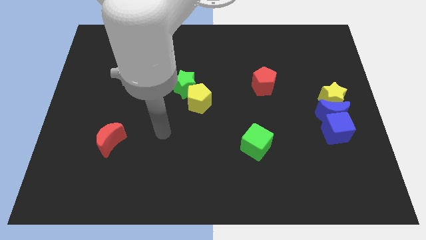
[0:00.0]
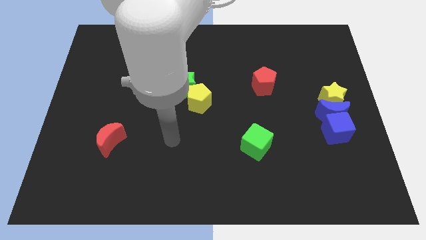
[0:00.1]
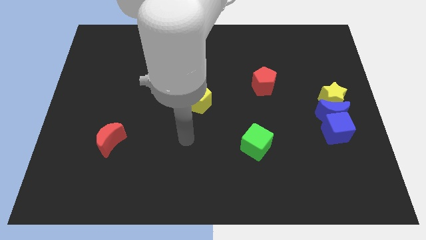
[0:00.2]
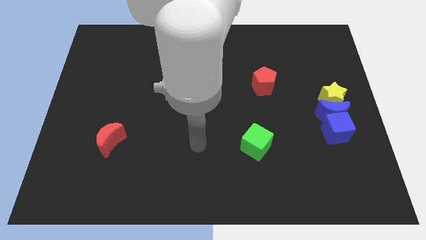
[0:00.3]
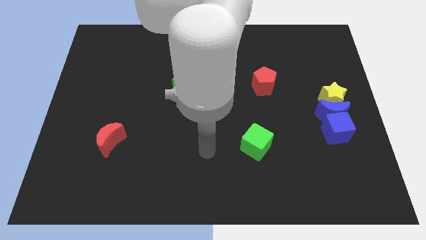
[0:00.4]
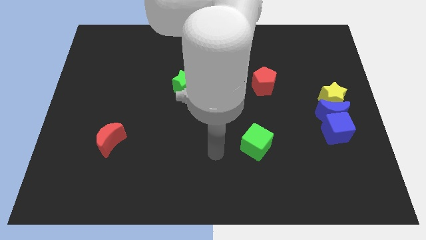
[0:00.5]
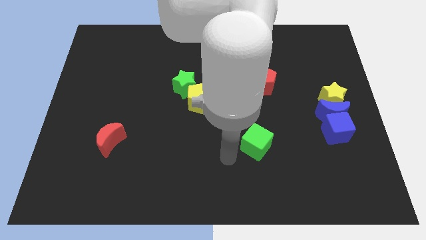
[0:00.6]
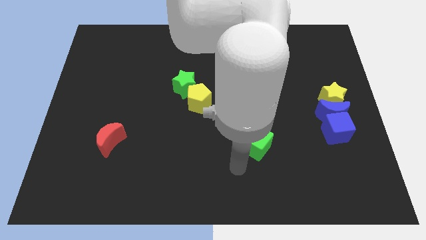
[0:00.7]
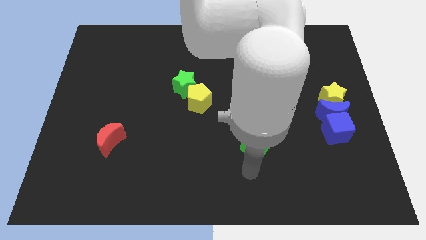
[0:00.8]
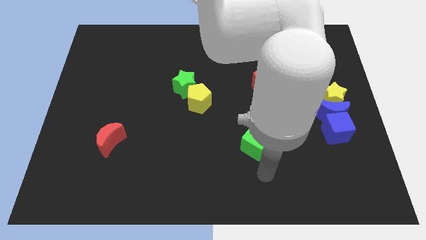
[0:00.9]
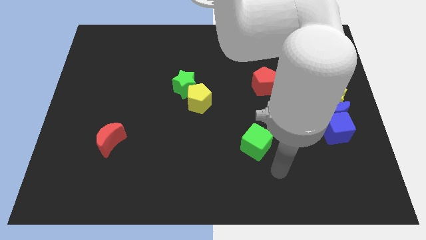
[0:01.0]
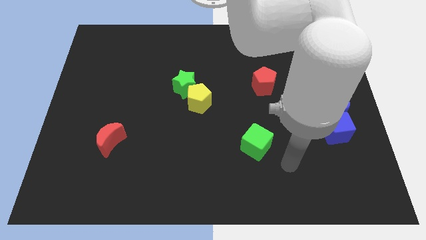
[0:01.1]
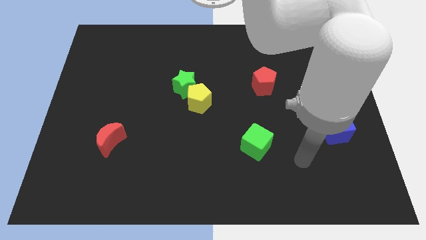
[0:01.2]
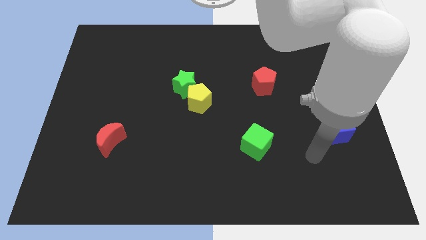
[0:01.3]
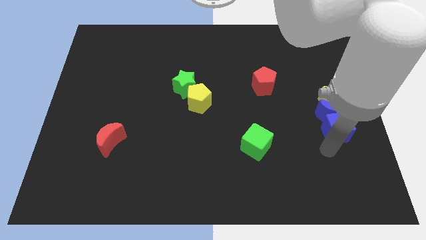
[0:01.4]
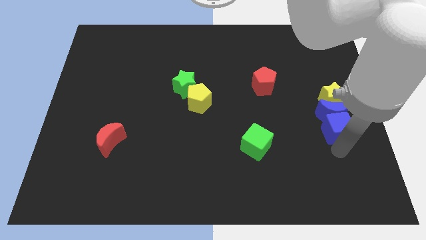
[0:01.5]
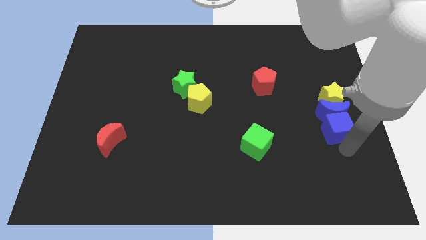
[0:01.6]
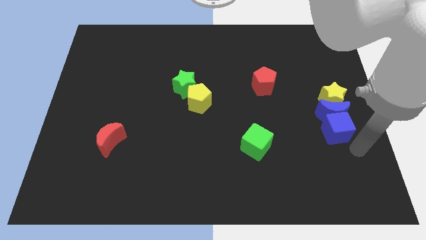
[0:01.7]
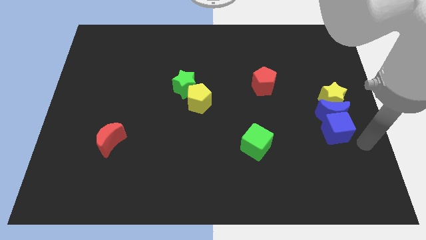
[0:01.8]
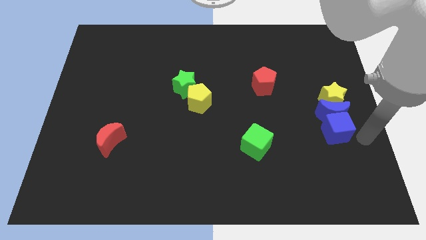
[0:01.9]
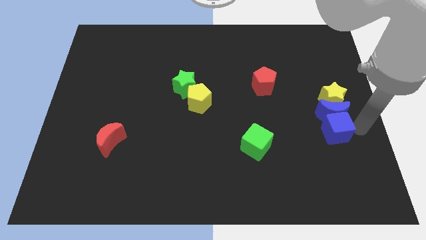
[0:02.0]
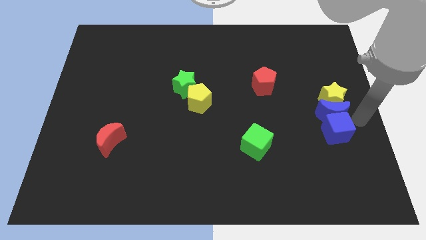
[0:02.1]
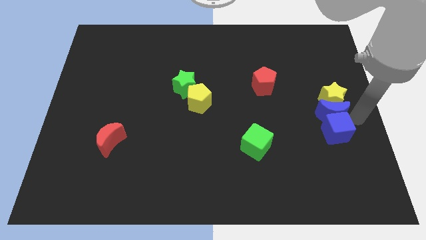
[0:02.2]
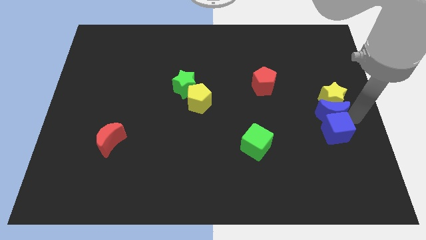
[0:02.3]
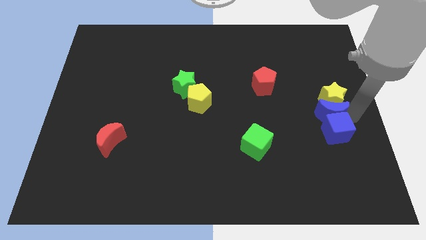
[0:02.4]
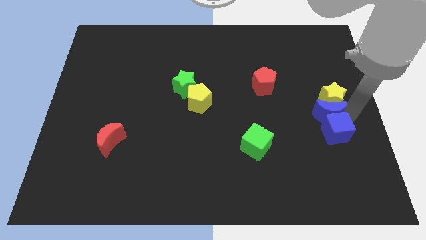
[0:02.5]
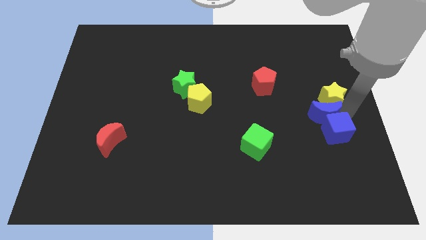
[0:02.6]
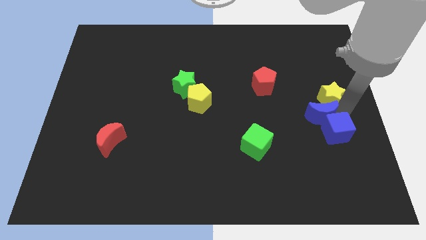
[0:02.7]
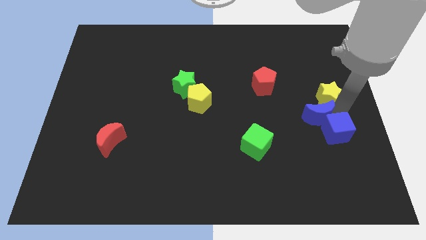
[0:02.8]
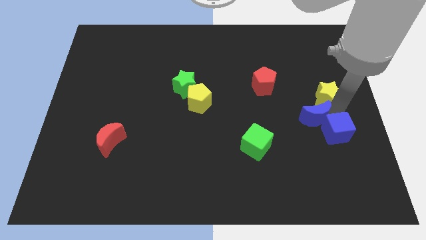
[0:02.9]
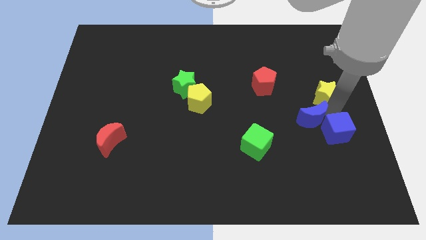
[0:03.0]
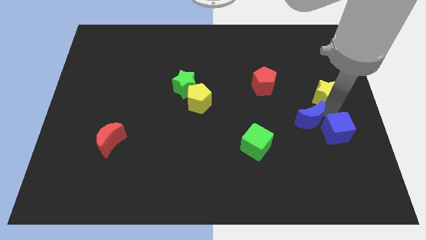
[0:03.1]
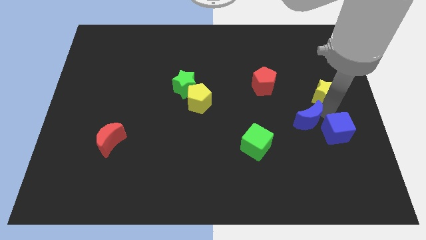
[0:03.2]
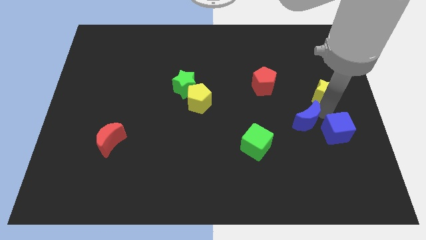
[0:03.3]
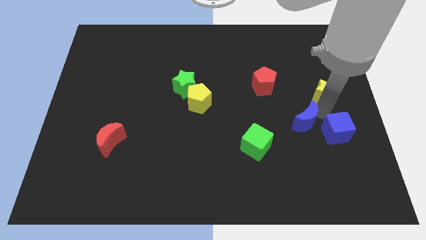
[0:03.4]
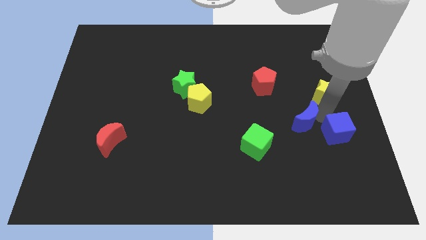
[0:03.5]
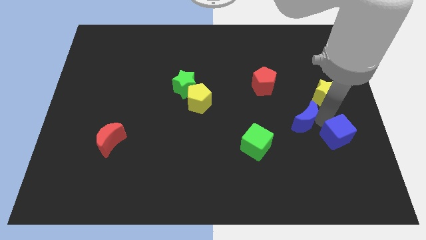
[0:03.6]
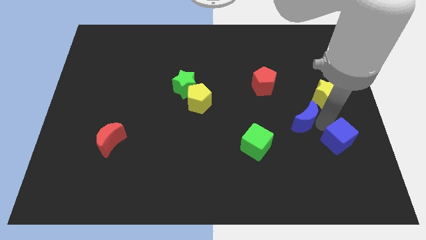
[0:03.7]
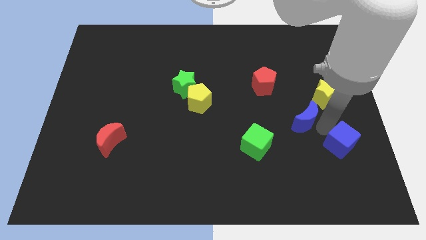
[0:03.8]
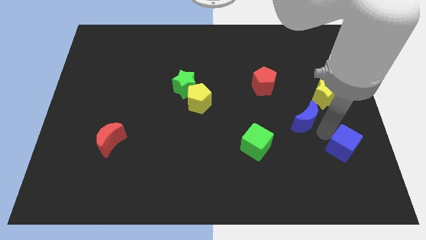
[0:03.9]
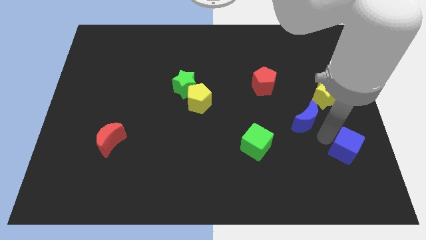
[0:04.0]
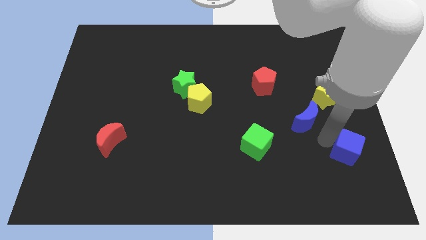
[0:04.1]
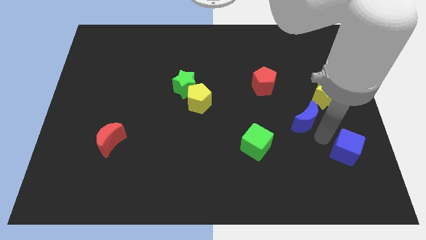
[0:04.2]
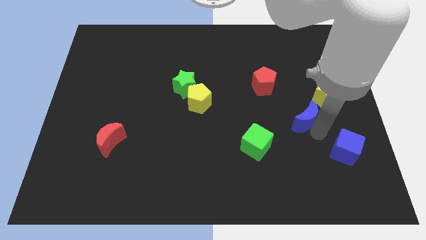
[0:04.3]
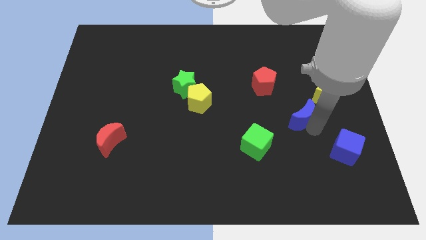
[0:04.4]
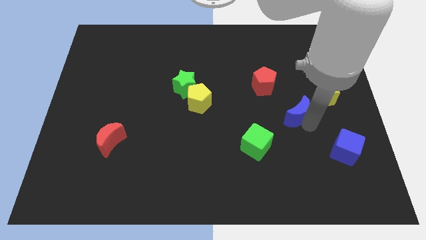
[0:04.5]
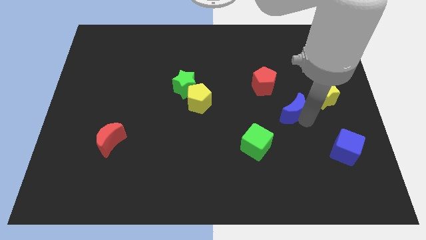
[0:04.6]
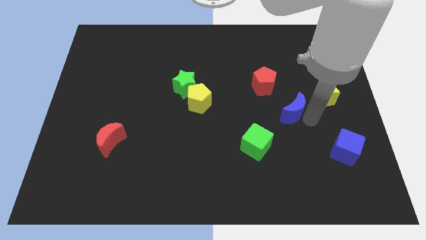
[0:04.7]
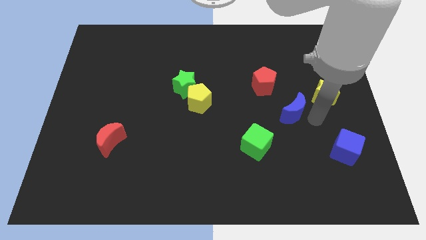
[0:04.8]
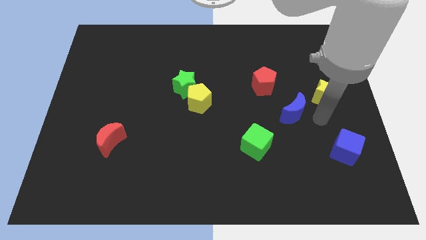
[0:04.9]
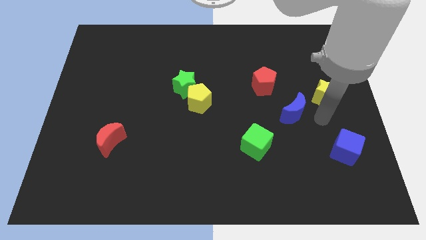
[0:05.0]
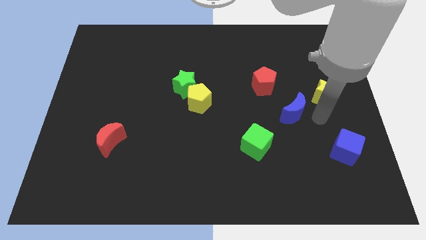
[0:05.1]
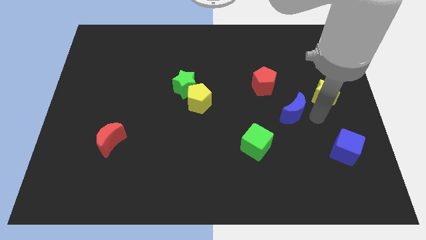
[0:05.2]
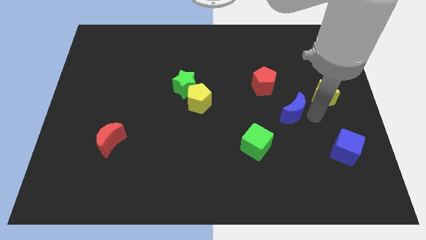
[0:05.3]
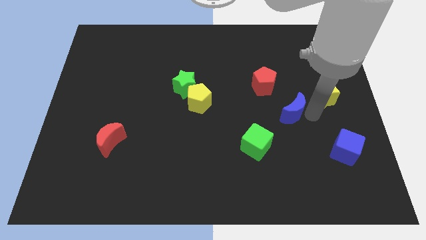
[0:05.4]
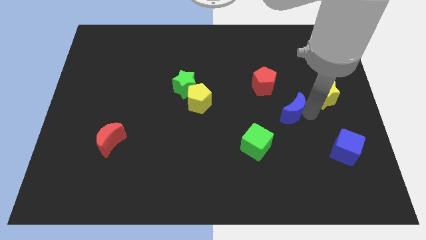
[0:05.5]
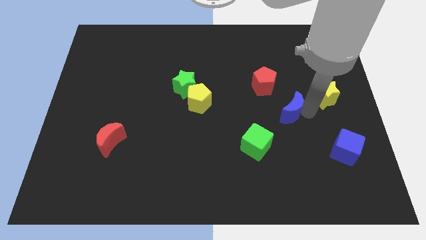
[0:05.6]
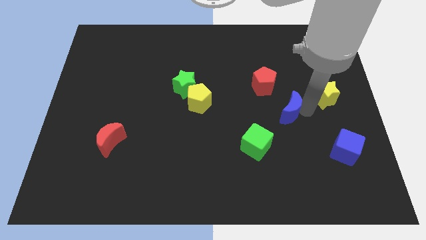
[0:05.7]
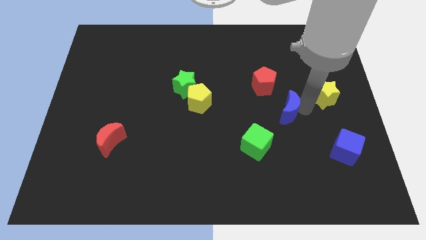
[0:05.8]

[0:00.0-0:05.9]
pull the blue moon apart from the yellow star and blue cube

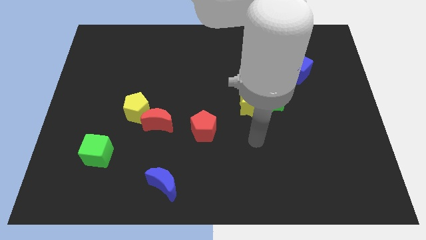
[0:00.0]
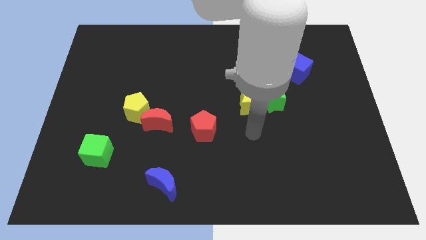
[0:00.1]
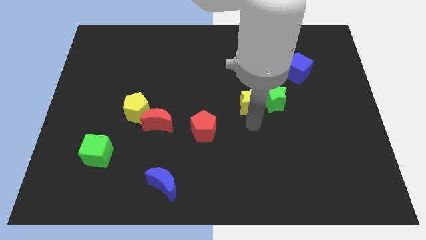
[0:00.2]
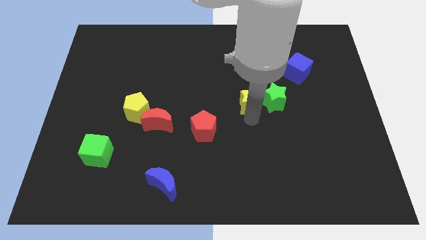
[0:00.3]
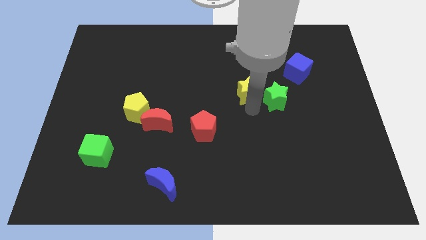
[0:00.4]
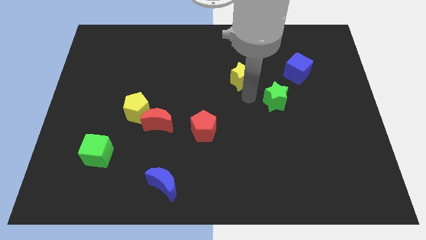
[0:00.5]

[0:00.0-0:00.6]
separate the green star from the yellow star

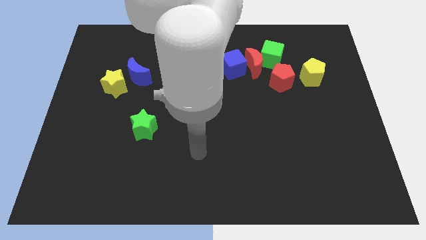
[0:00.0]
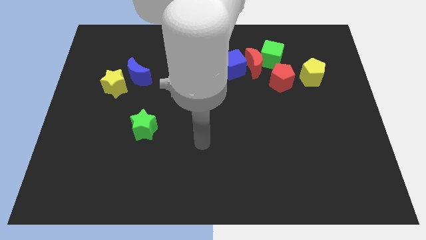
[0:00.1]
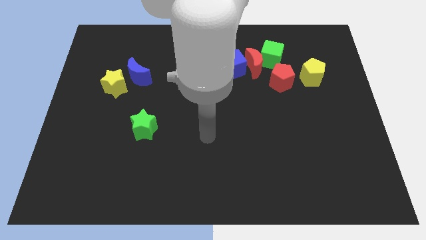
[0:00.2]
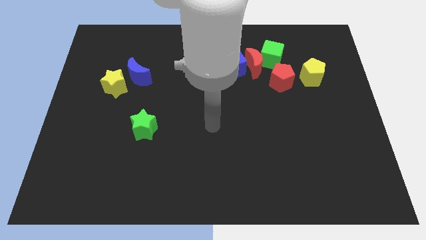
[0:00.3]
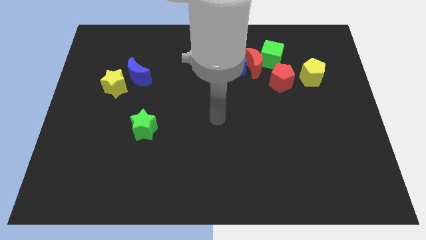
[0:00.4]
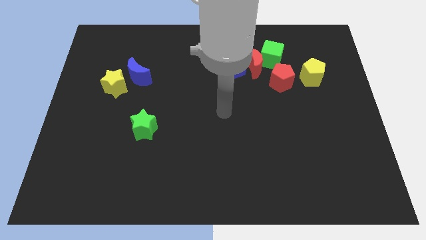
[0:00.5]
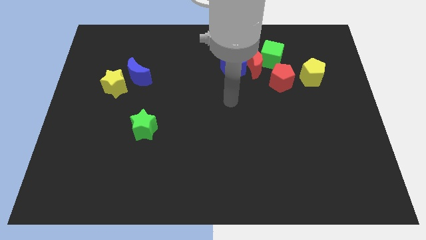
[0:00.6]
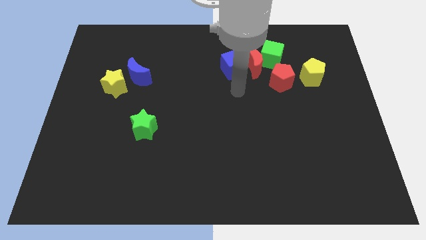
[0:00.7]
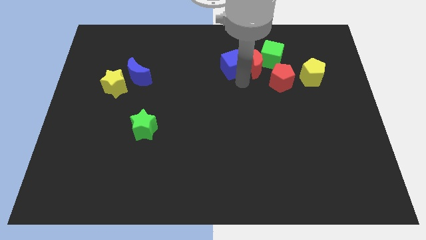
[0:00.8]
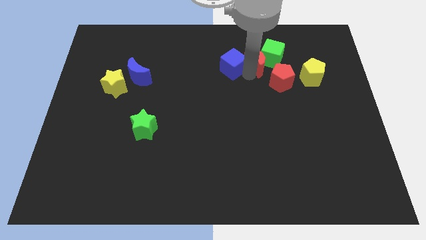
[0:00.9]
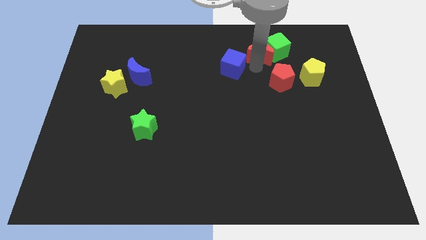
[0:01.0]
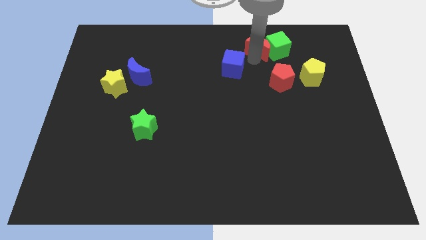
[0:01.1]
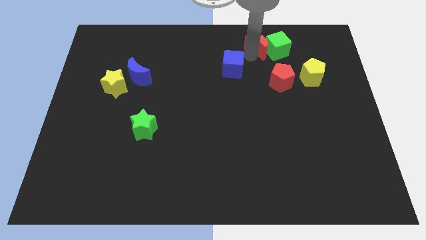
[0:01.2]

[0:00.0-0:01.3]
pull the blue cube apart from the red moon

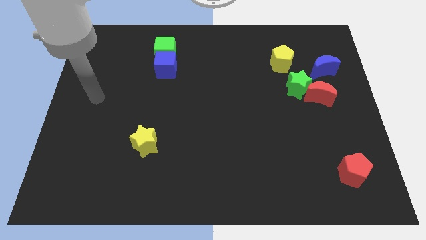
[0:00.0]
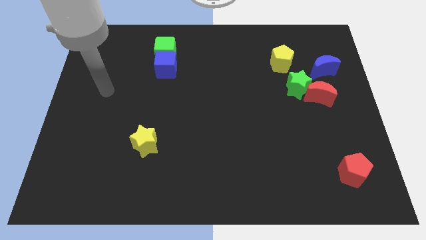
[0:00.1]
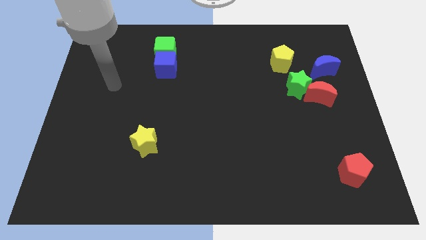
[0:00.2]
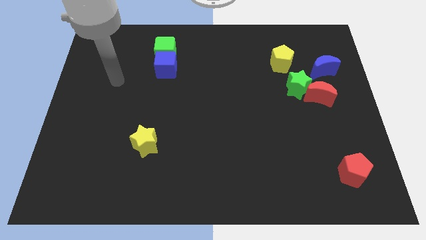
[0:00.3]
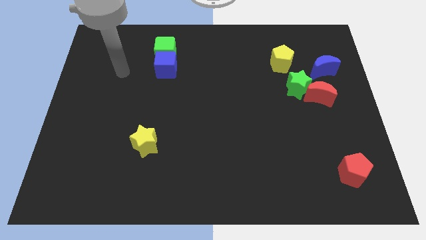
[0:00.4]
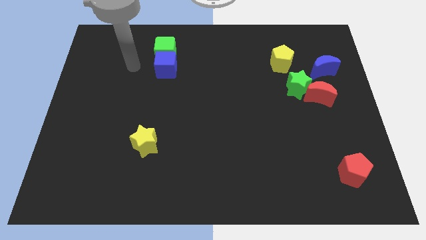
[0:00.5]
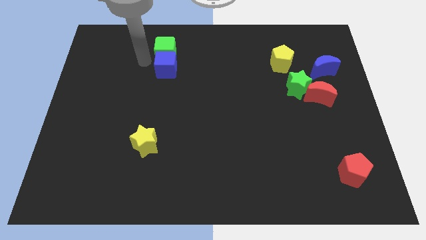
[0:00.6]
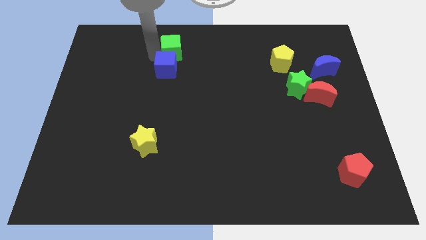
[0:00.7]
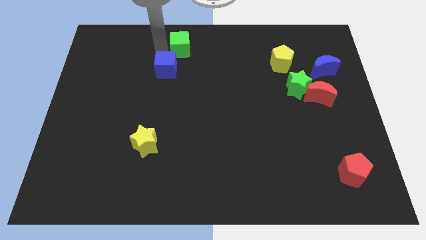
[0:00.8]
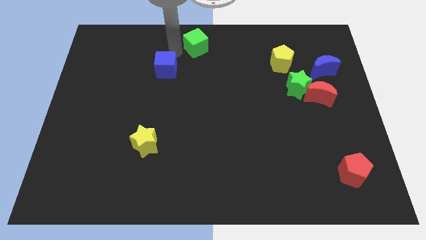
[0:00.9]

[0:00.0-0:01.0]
pull the blue cube apart from the green cube

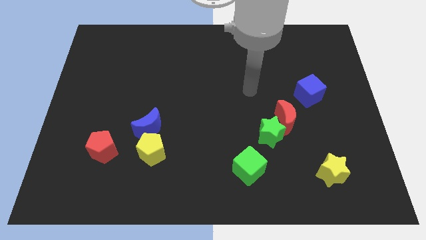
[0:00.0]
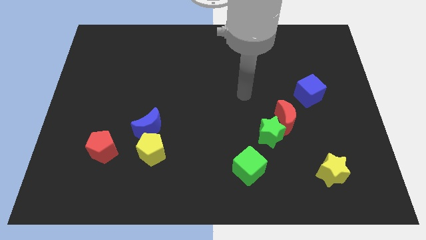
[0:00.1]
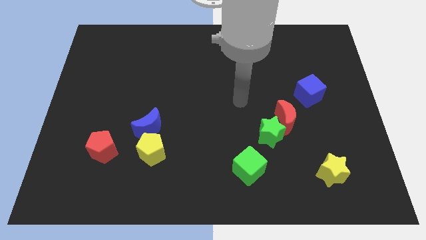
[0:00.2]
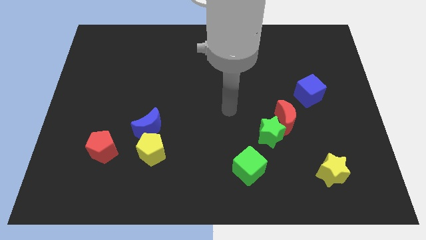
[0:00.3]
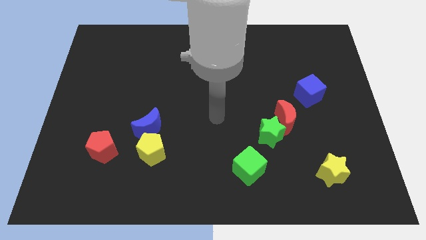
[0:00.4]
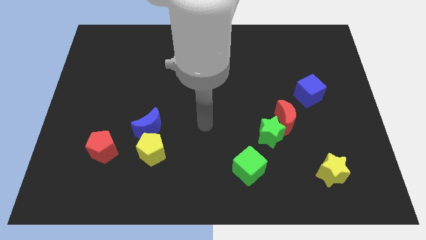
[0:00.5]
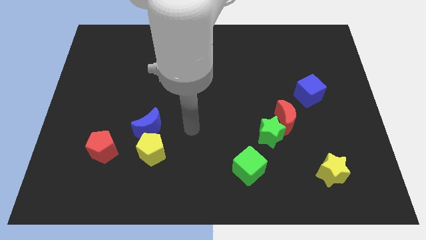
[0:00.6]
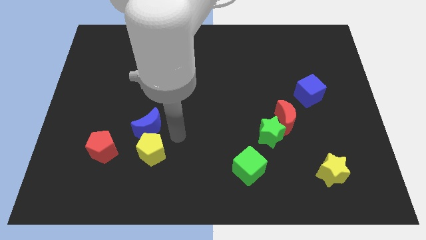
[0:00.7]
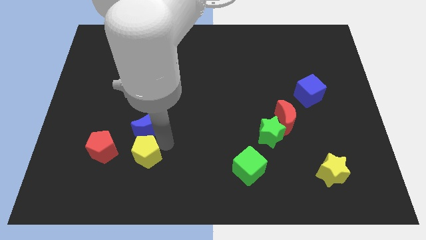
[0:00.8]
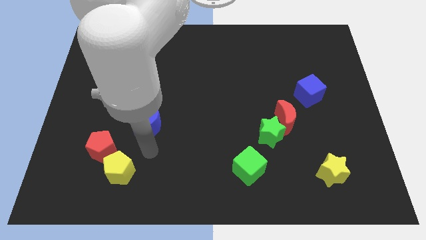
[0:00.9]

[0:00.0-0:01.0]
pull the blue moon apart from the yellow pentagon
